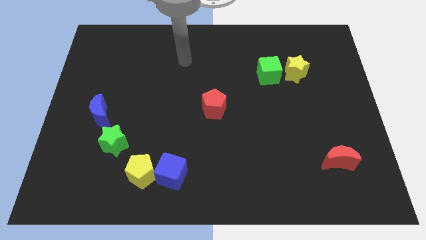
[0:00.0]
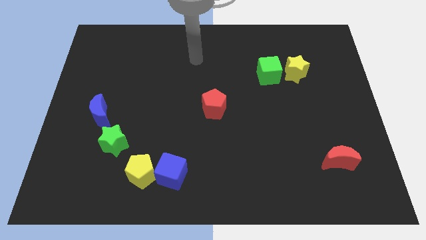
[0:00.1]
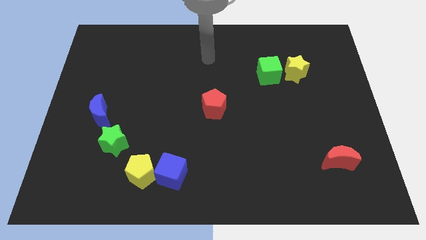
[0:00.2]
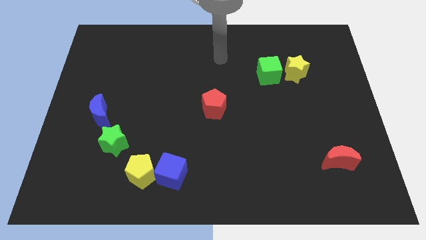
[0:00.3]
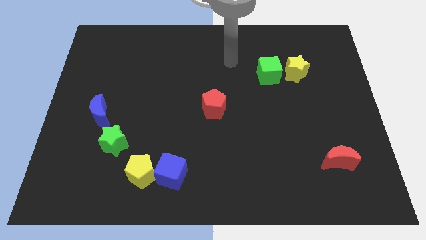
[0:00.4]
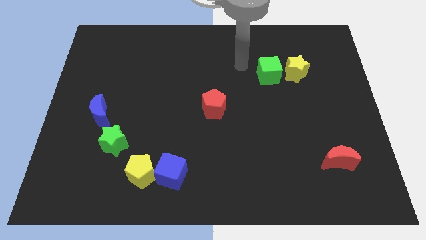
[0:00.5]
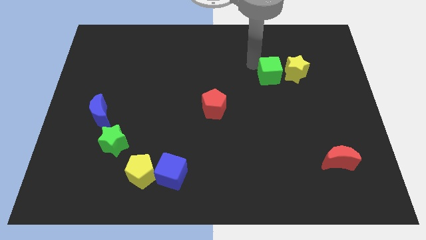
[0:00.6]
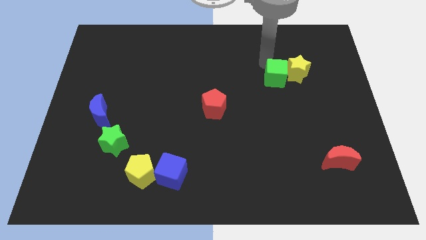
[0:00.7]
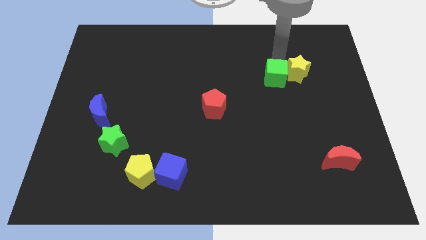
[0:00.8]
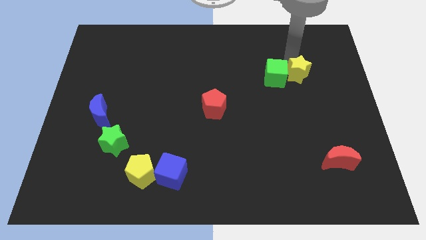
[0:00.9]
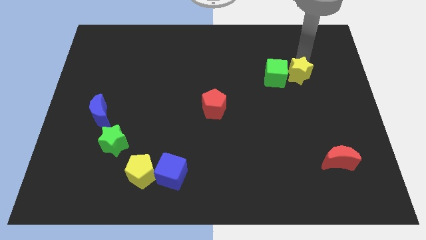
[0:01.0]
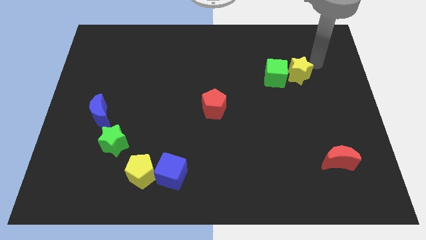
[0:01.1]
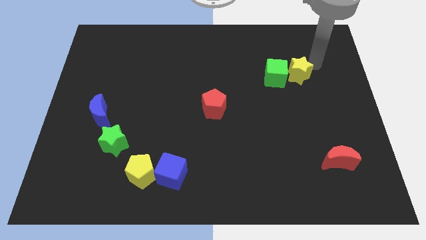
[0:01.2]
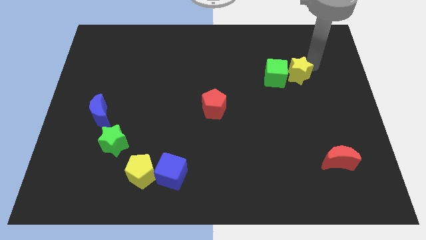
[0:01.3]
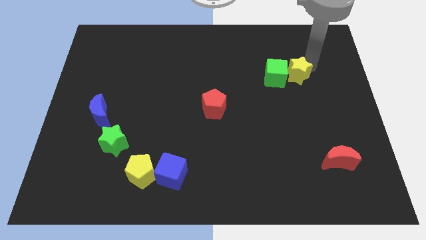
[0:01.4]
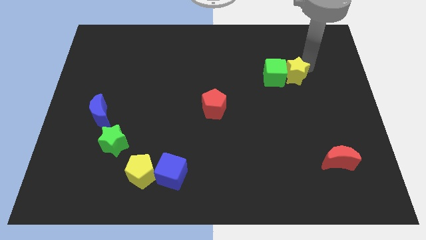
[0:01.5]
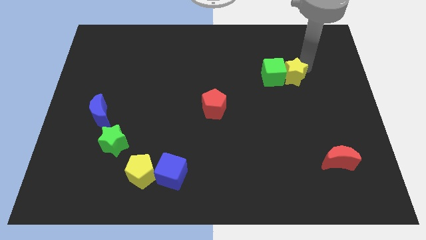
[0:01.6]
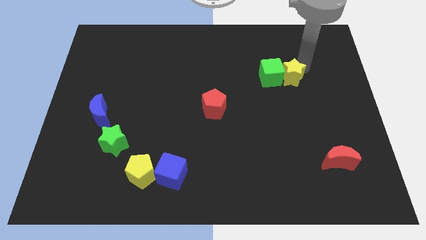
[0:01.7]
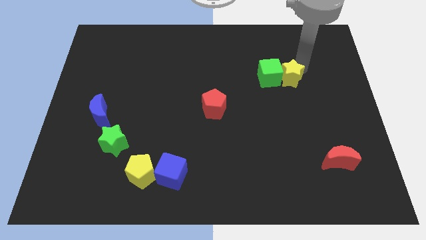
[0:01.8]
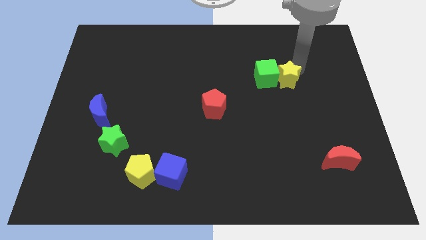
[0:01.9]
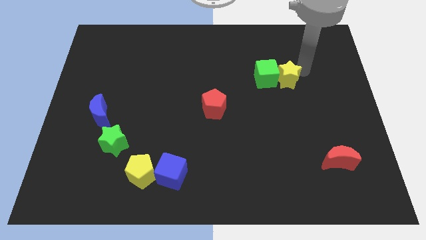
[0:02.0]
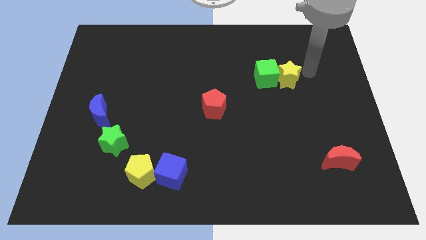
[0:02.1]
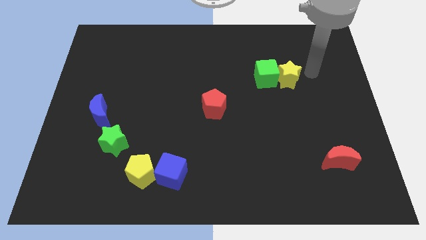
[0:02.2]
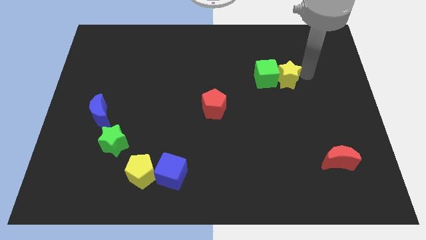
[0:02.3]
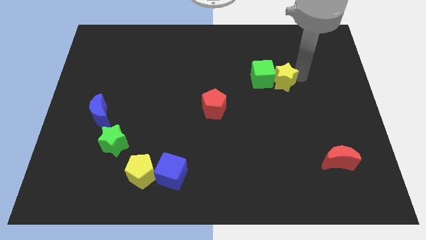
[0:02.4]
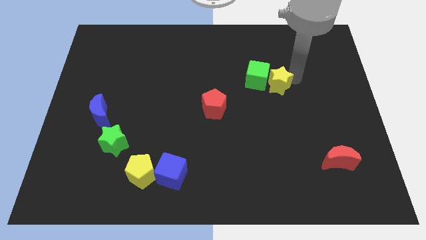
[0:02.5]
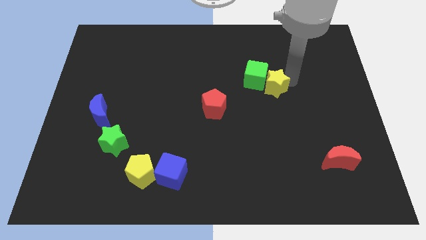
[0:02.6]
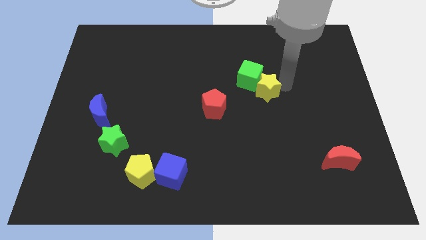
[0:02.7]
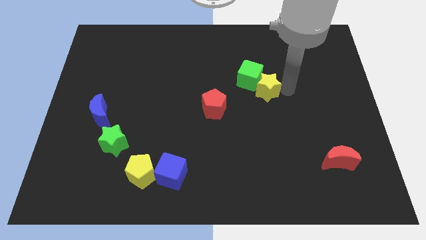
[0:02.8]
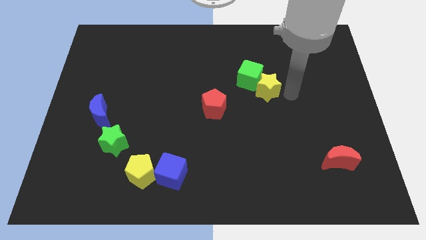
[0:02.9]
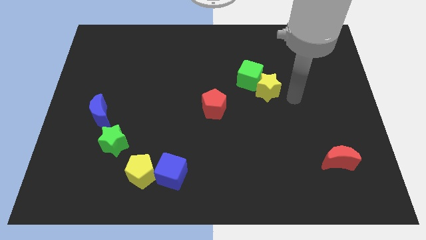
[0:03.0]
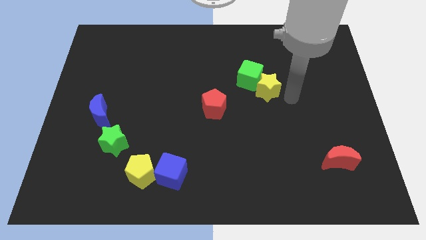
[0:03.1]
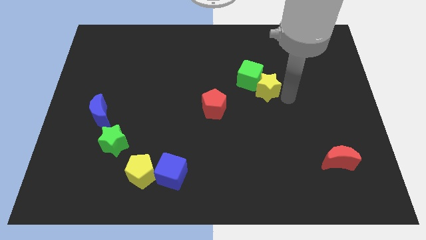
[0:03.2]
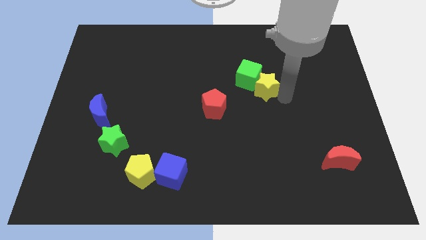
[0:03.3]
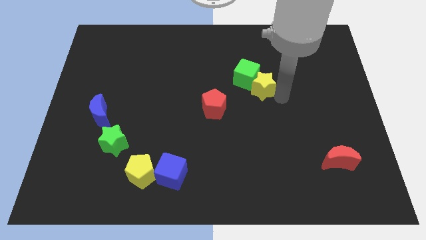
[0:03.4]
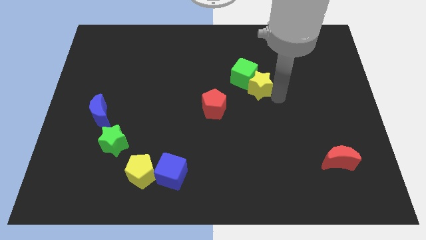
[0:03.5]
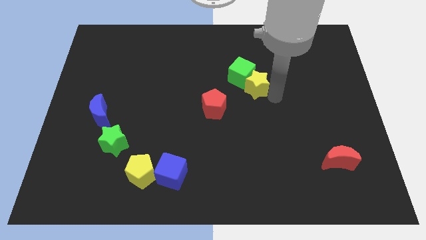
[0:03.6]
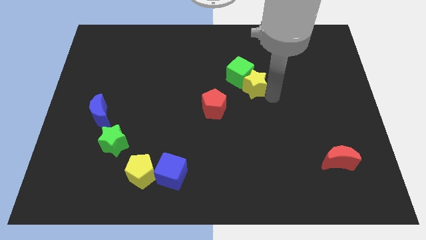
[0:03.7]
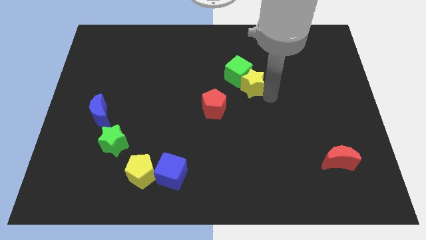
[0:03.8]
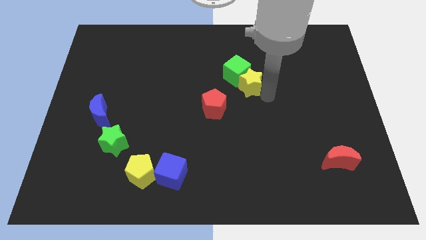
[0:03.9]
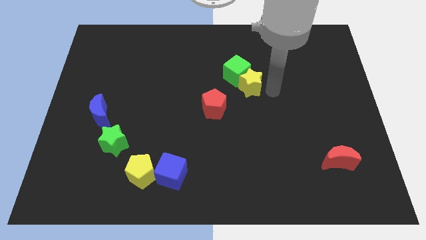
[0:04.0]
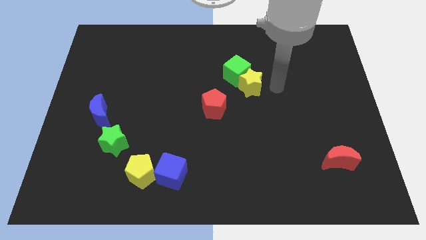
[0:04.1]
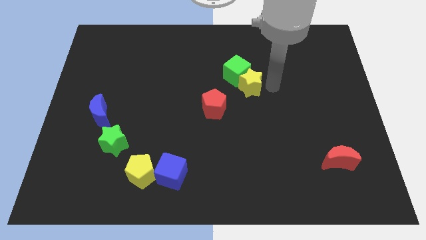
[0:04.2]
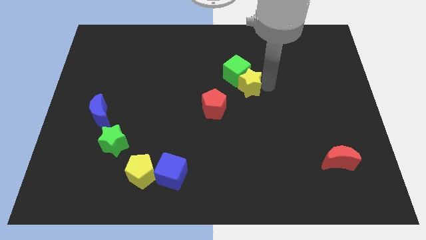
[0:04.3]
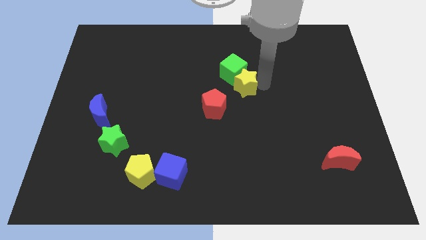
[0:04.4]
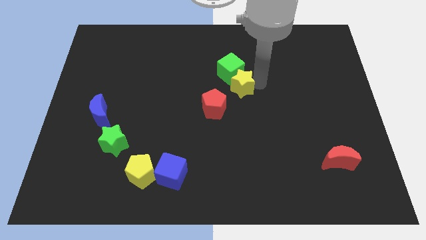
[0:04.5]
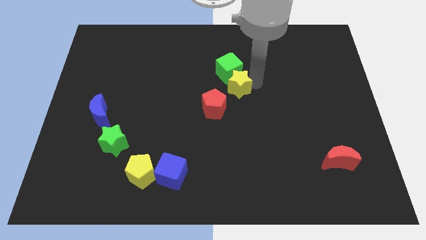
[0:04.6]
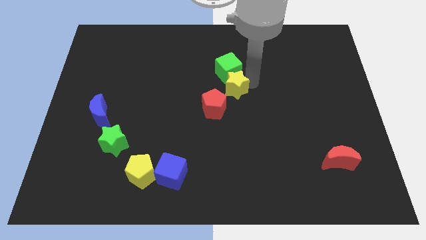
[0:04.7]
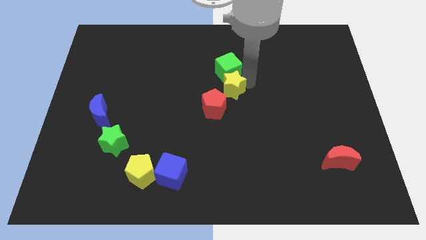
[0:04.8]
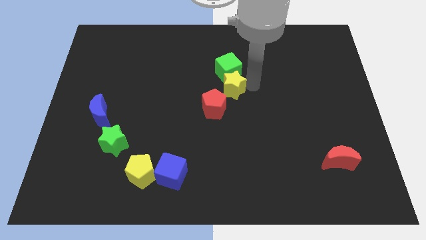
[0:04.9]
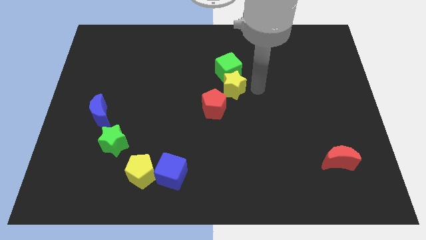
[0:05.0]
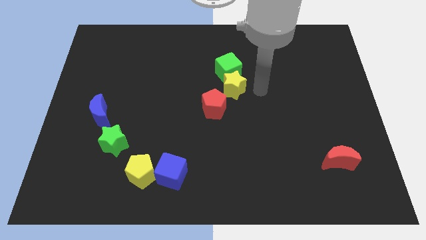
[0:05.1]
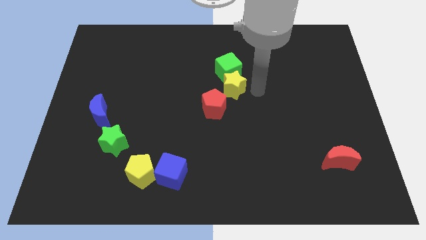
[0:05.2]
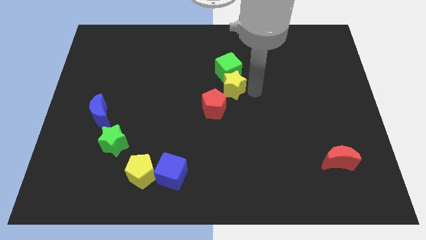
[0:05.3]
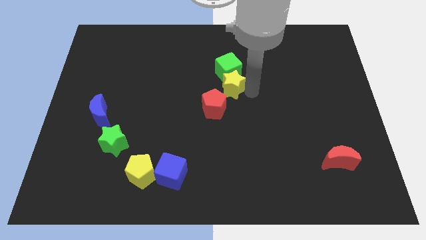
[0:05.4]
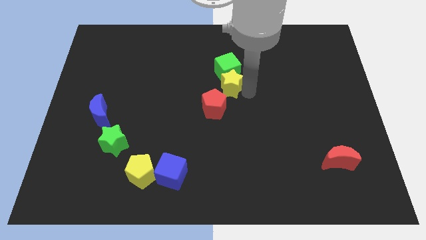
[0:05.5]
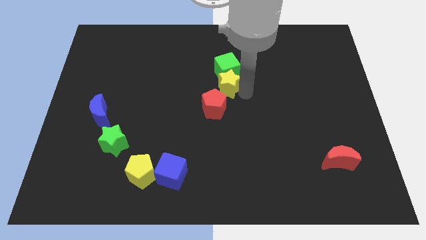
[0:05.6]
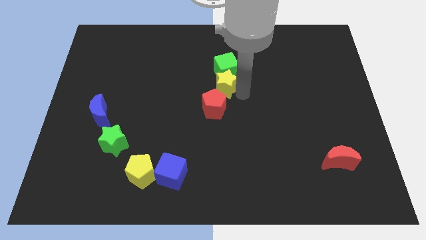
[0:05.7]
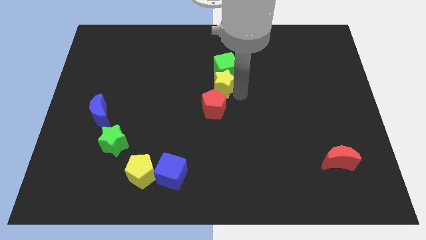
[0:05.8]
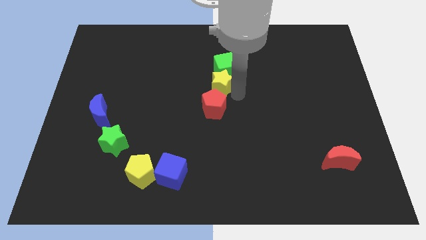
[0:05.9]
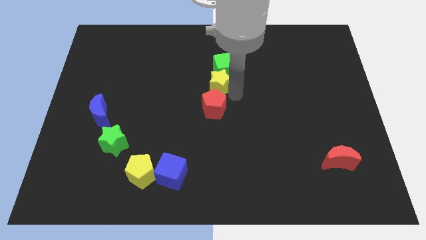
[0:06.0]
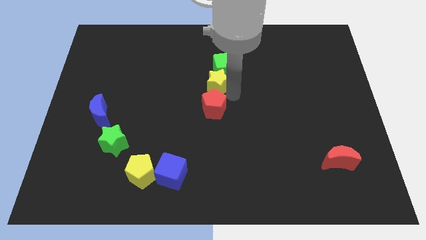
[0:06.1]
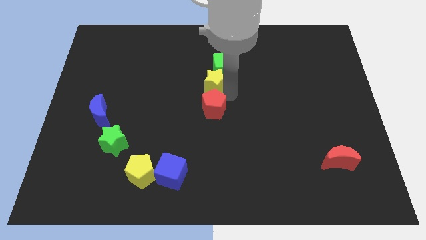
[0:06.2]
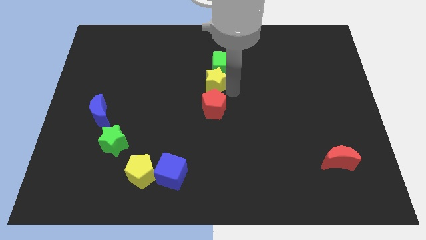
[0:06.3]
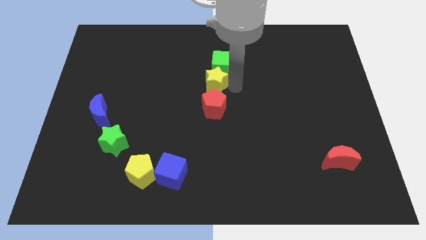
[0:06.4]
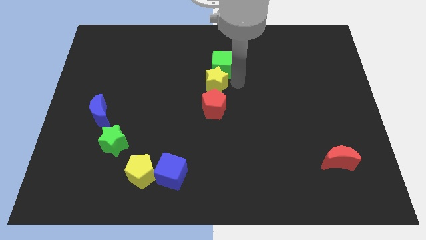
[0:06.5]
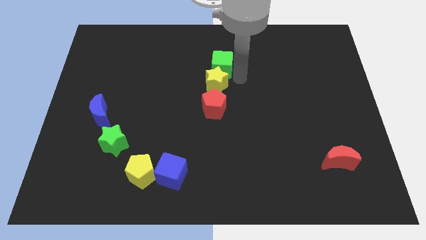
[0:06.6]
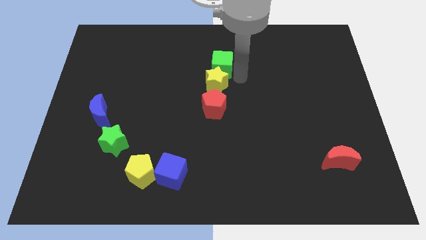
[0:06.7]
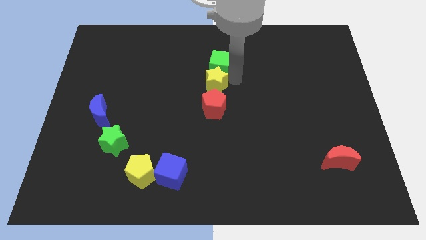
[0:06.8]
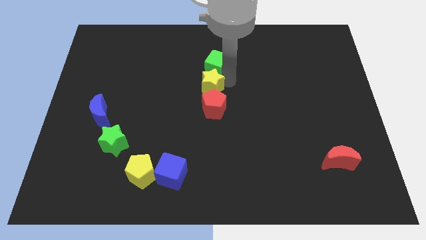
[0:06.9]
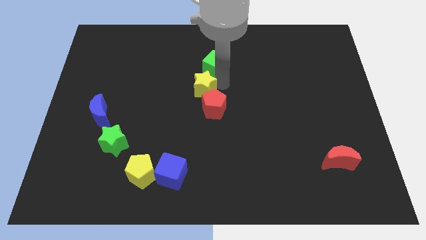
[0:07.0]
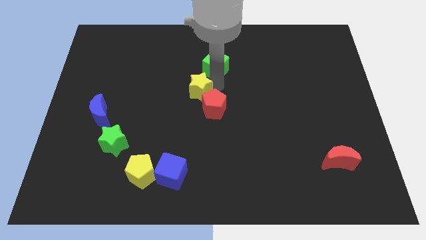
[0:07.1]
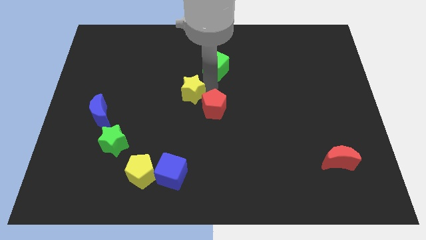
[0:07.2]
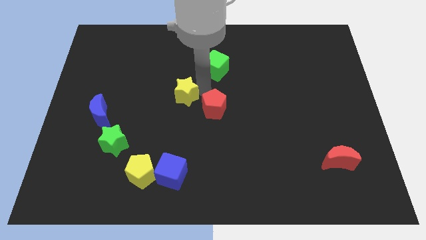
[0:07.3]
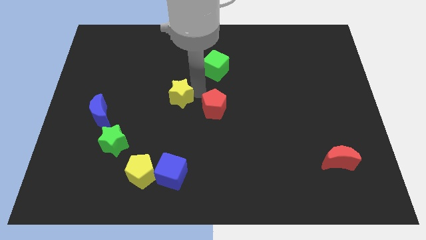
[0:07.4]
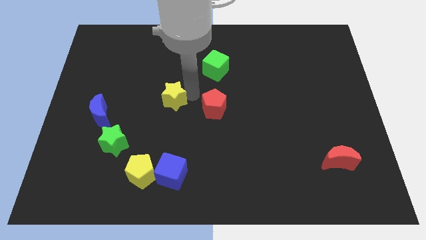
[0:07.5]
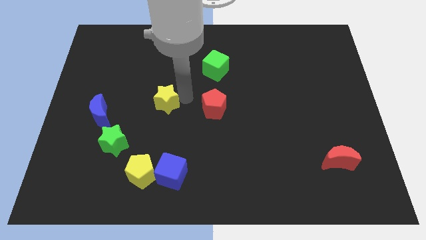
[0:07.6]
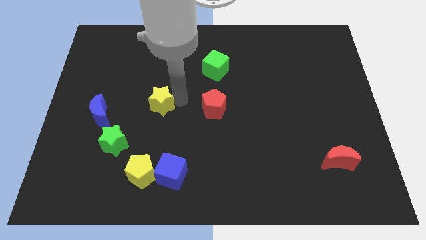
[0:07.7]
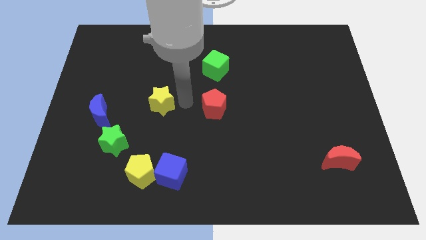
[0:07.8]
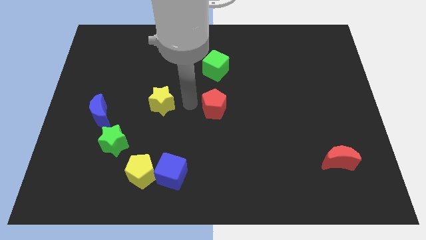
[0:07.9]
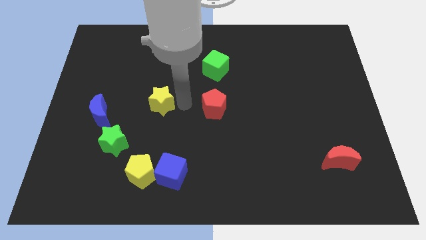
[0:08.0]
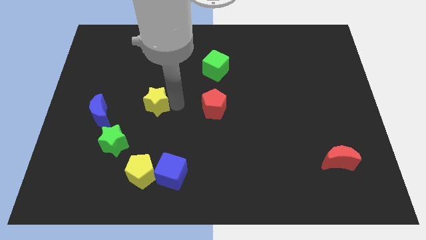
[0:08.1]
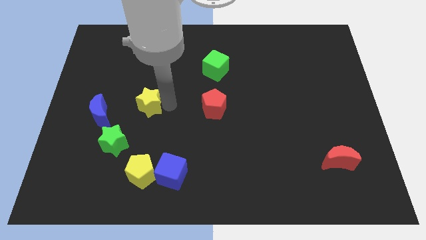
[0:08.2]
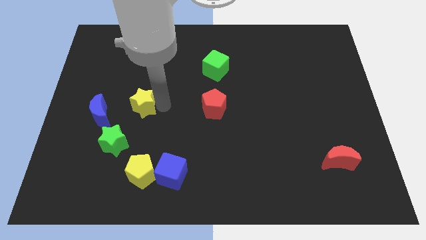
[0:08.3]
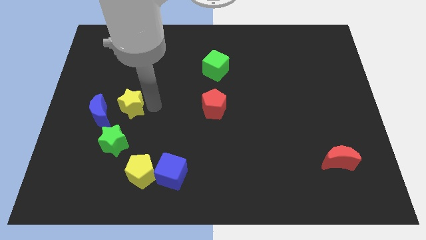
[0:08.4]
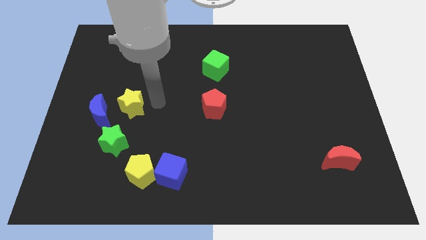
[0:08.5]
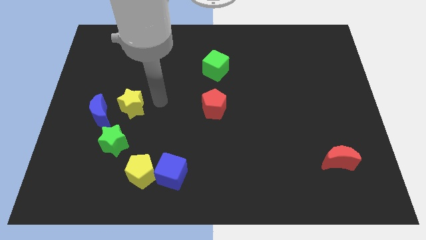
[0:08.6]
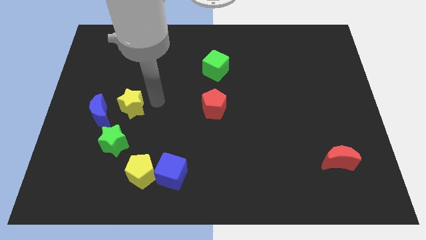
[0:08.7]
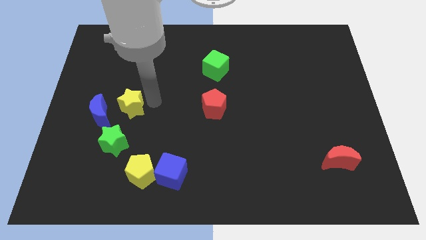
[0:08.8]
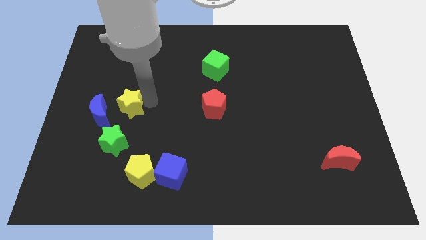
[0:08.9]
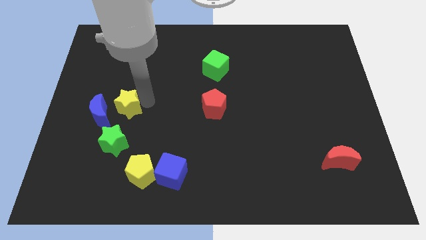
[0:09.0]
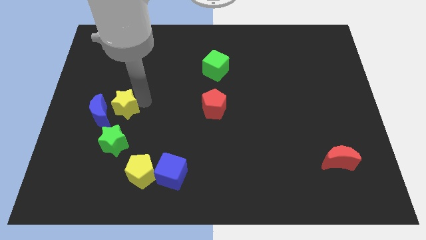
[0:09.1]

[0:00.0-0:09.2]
slide the yellow star towards the blue moon
